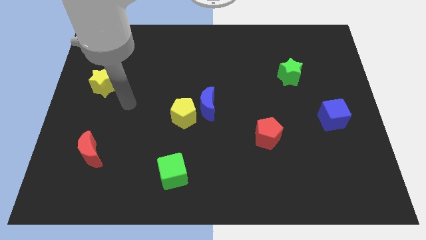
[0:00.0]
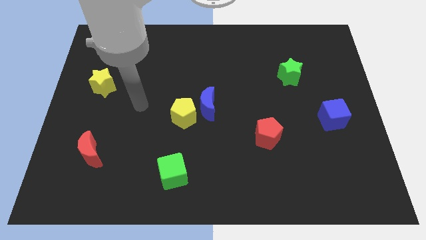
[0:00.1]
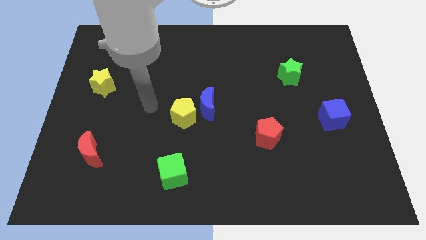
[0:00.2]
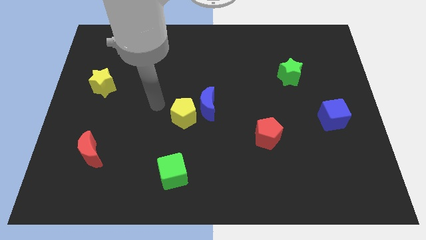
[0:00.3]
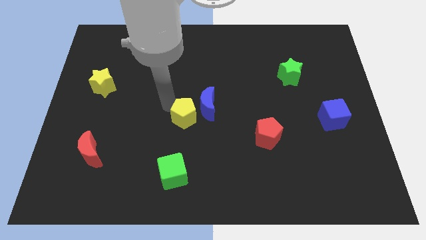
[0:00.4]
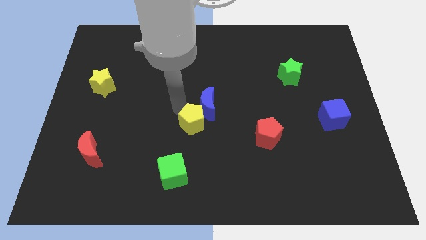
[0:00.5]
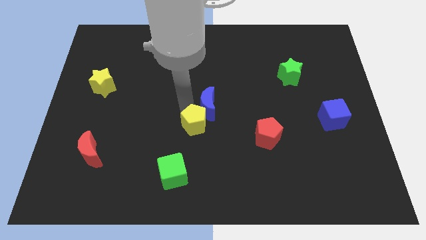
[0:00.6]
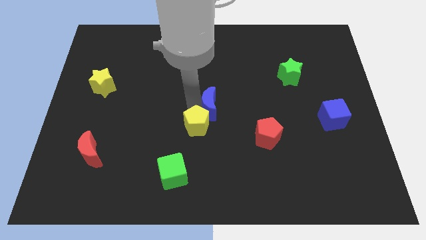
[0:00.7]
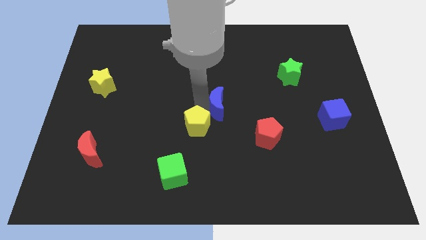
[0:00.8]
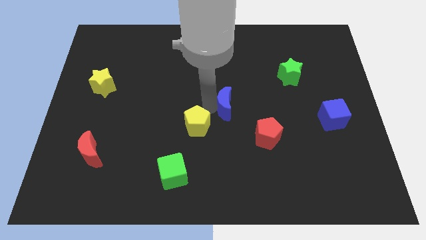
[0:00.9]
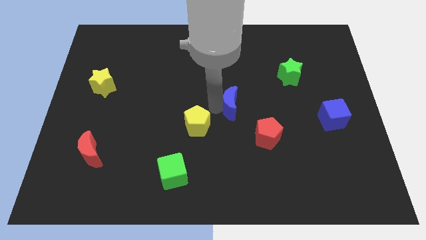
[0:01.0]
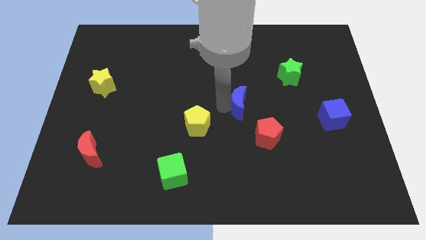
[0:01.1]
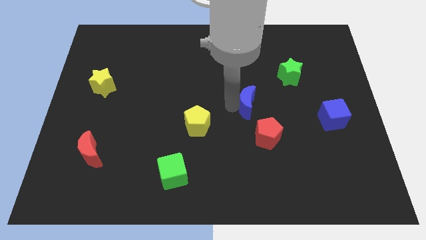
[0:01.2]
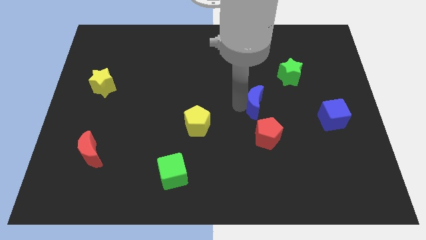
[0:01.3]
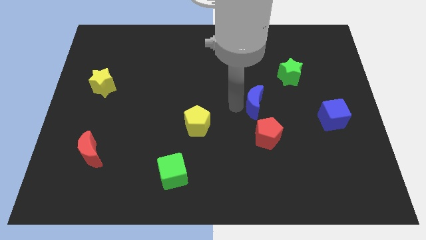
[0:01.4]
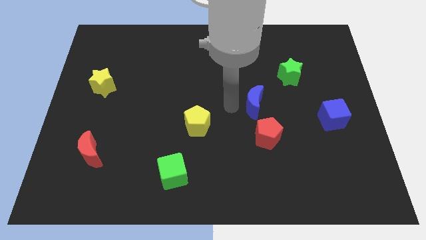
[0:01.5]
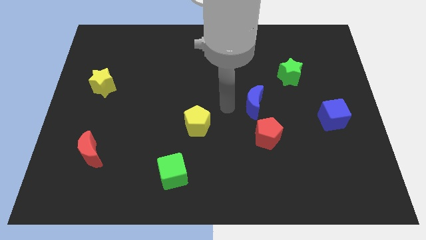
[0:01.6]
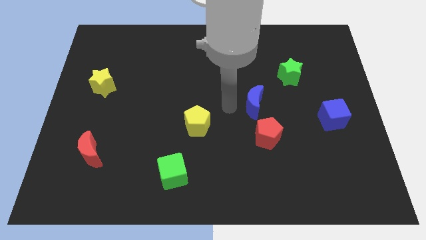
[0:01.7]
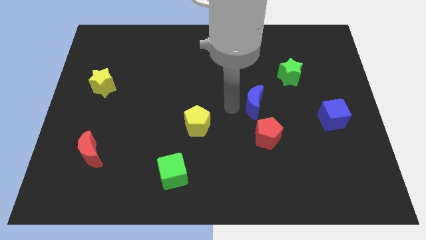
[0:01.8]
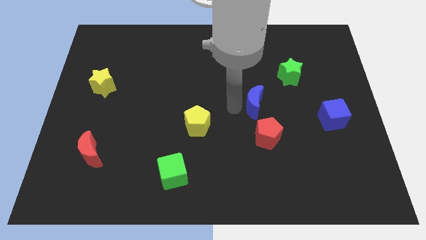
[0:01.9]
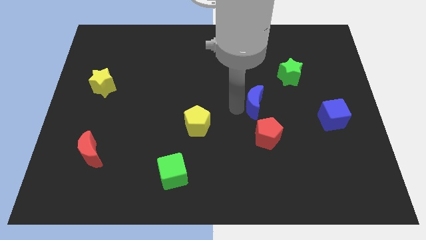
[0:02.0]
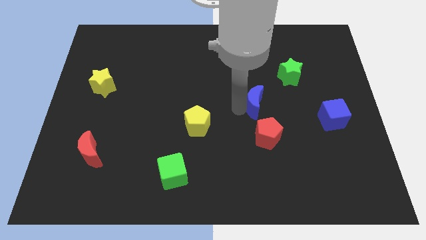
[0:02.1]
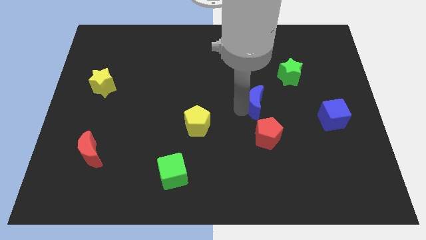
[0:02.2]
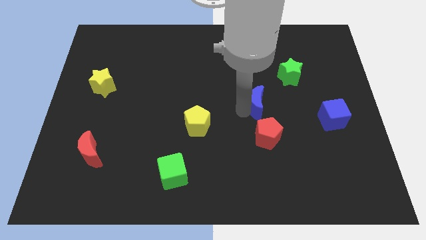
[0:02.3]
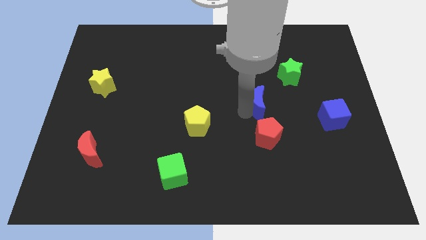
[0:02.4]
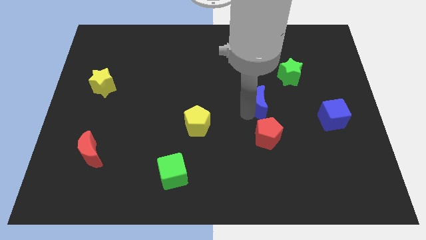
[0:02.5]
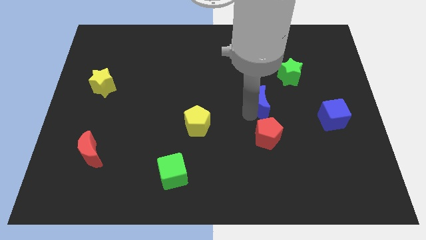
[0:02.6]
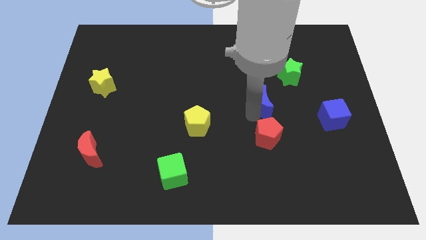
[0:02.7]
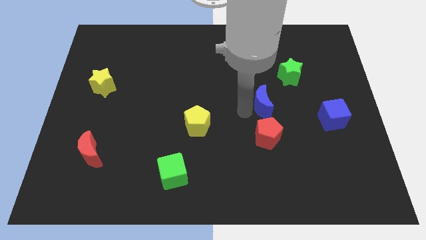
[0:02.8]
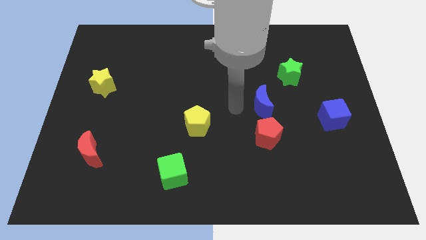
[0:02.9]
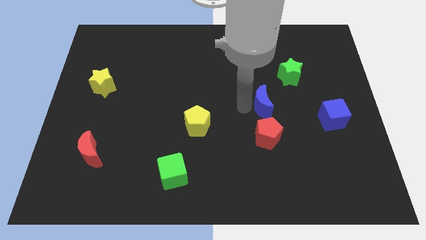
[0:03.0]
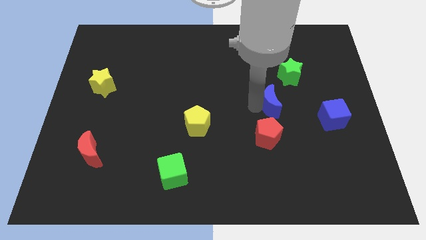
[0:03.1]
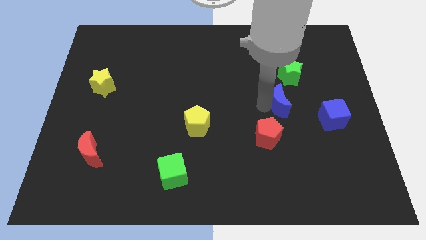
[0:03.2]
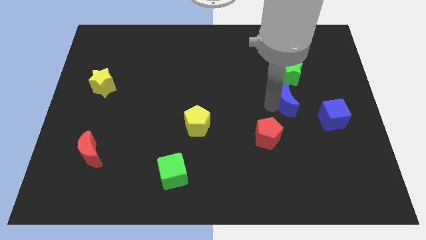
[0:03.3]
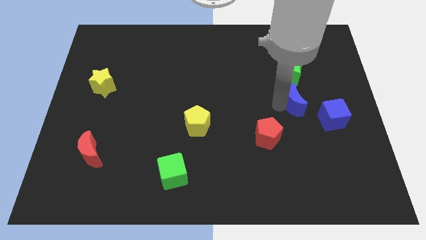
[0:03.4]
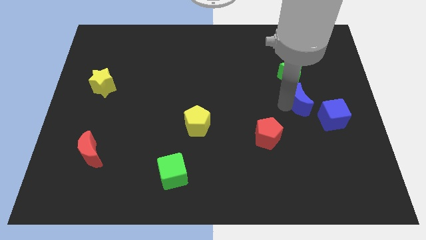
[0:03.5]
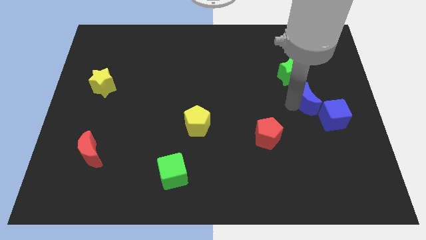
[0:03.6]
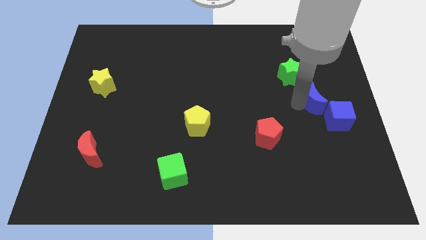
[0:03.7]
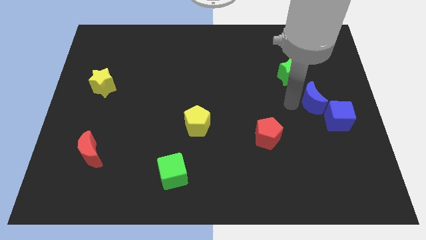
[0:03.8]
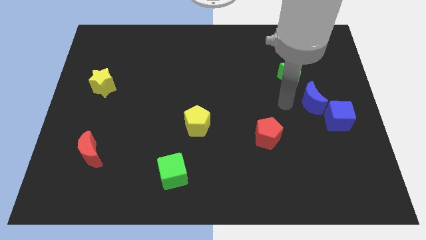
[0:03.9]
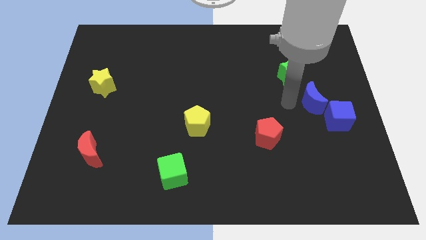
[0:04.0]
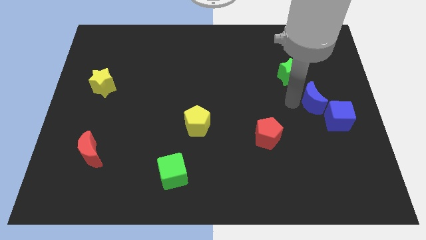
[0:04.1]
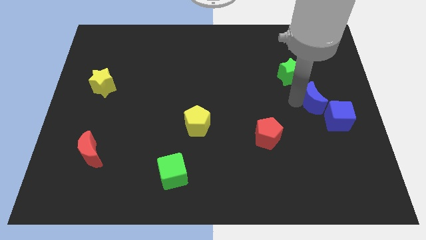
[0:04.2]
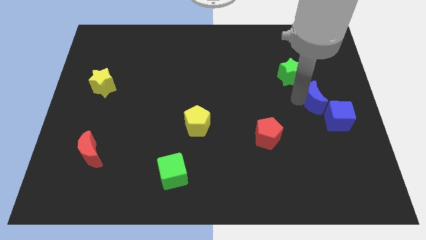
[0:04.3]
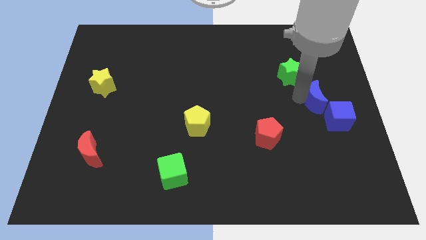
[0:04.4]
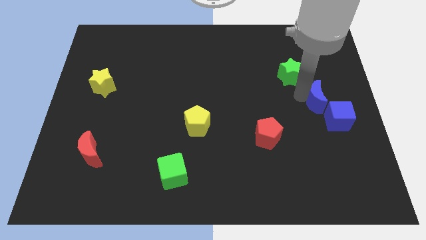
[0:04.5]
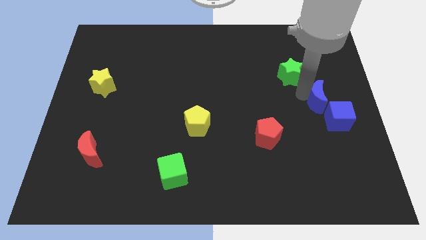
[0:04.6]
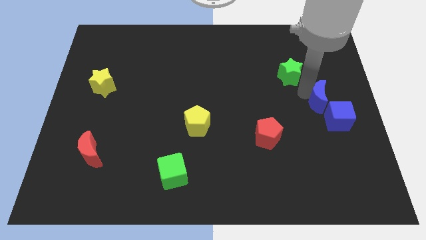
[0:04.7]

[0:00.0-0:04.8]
push the blue moon to the center right

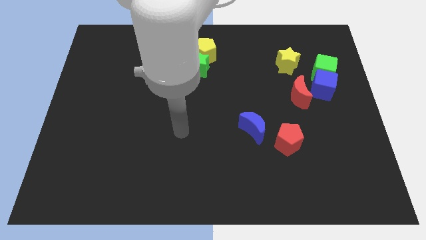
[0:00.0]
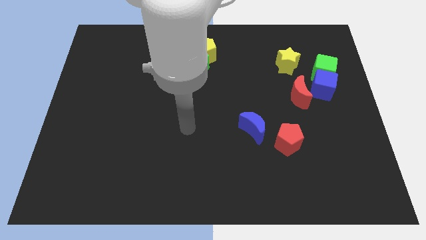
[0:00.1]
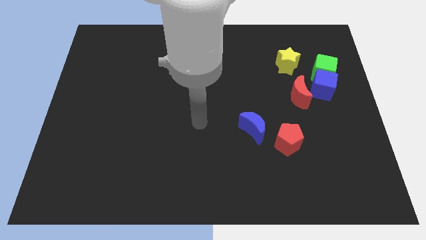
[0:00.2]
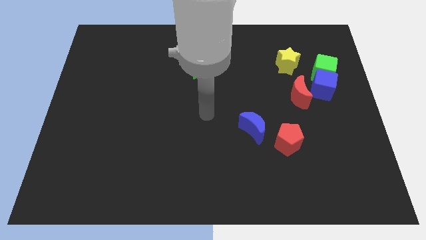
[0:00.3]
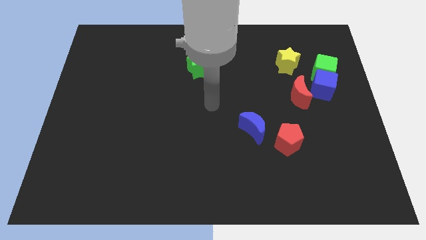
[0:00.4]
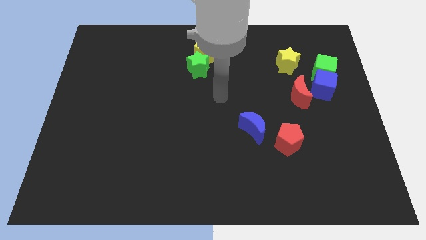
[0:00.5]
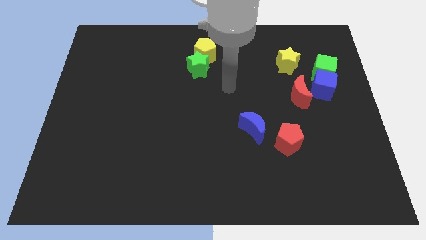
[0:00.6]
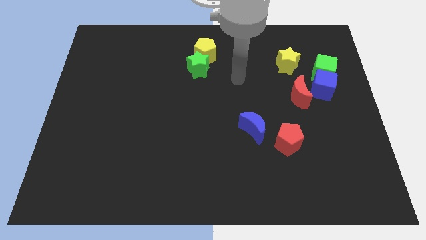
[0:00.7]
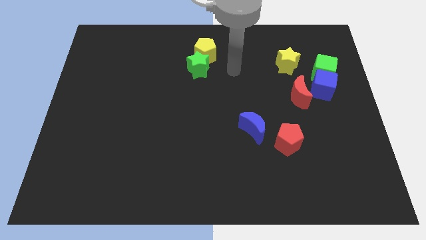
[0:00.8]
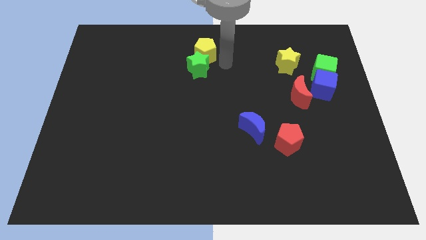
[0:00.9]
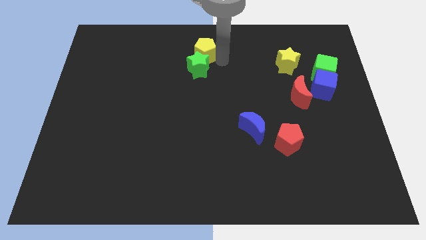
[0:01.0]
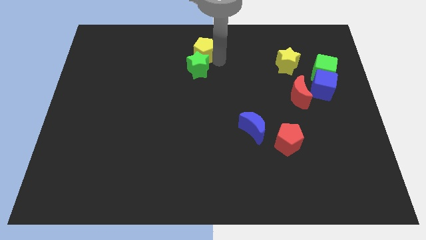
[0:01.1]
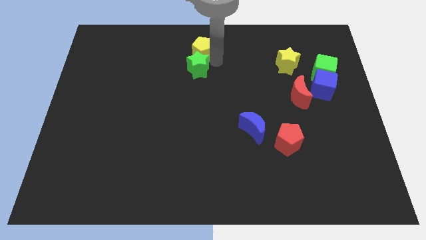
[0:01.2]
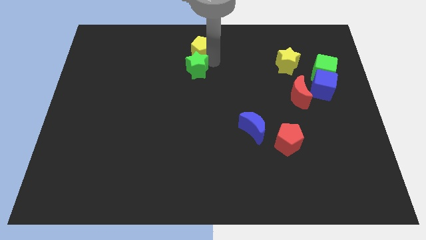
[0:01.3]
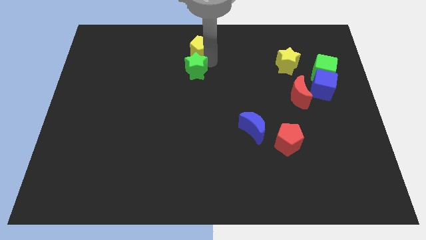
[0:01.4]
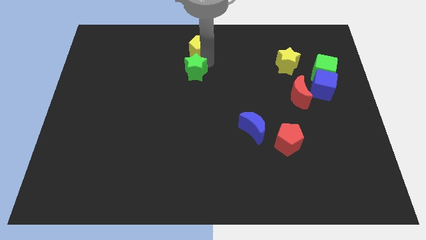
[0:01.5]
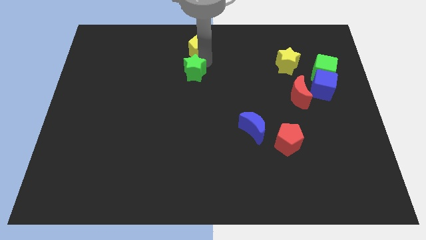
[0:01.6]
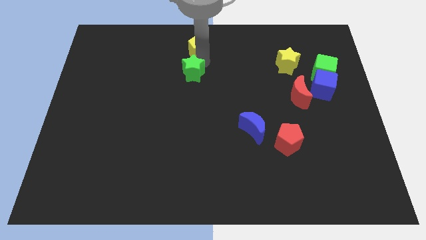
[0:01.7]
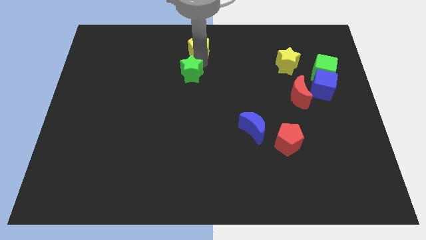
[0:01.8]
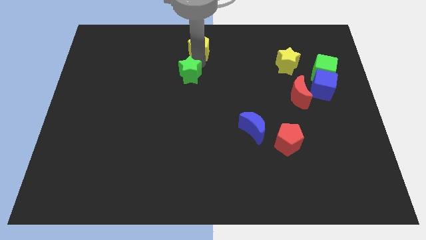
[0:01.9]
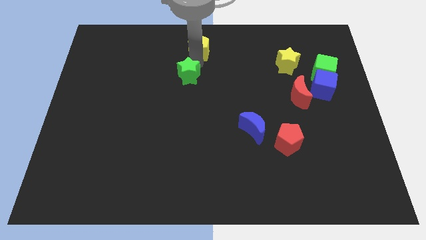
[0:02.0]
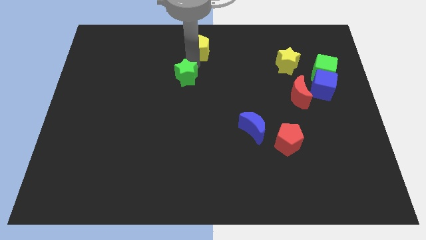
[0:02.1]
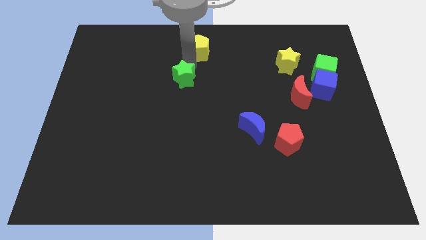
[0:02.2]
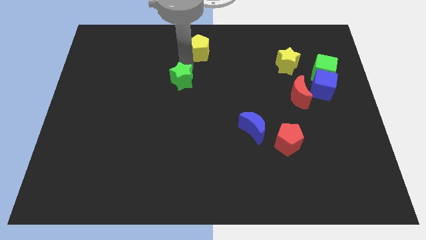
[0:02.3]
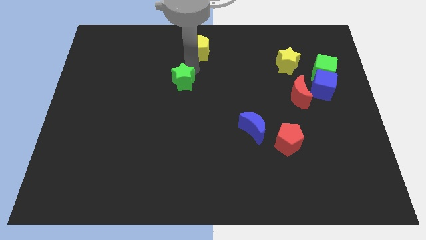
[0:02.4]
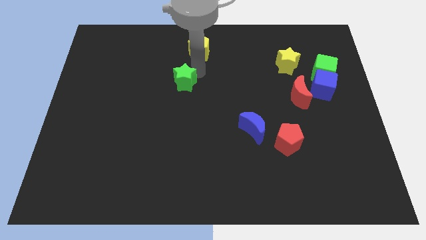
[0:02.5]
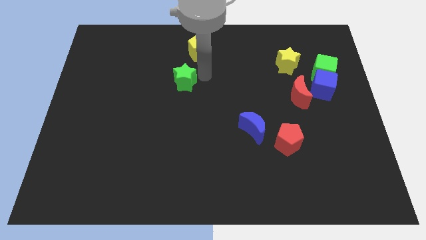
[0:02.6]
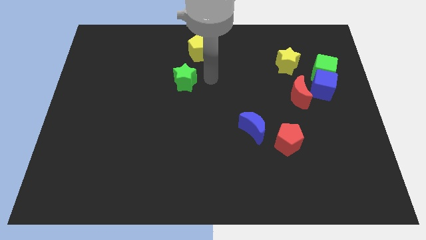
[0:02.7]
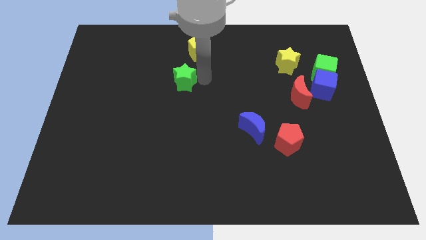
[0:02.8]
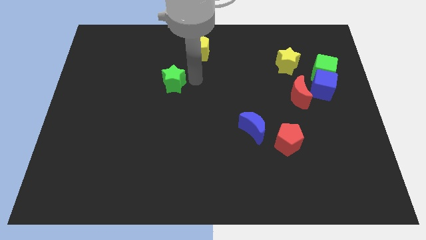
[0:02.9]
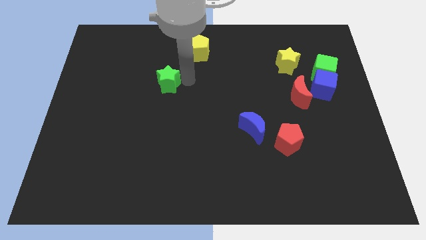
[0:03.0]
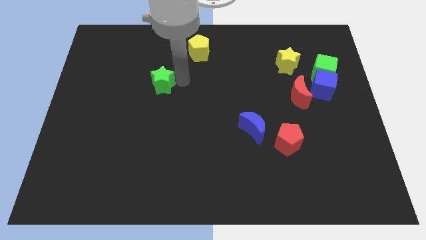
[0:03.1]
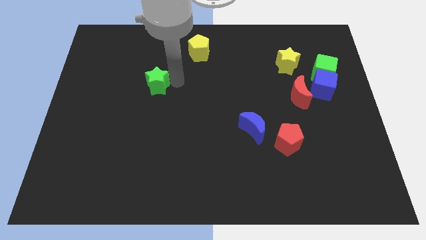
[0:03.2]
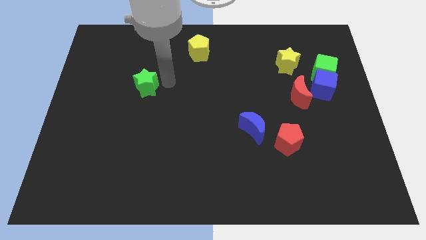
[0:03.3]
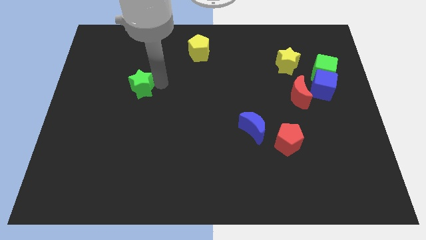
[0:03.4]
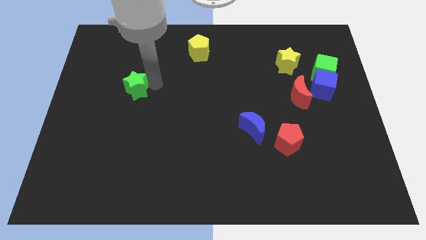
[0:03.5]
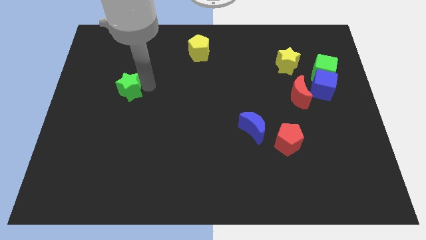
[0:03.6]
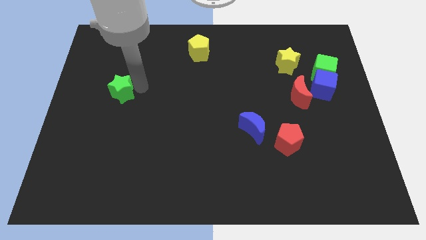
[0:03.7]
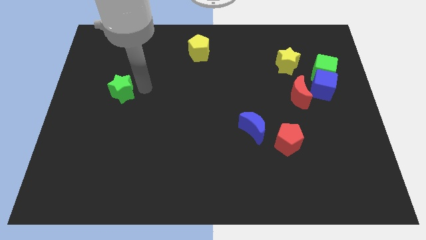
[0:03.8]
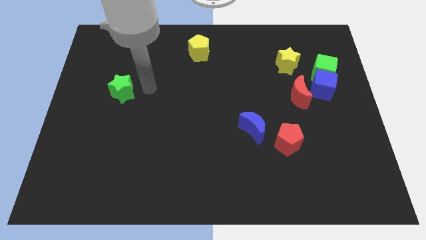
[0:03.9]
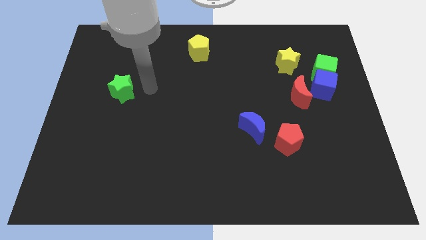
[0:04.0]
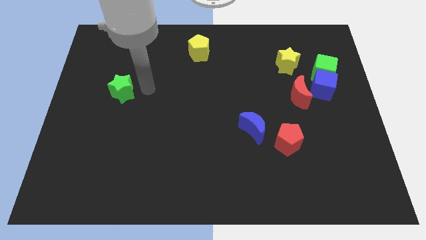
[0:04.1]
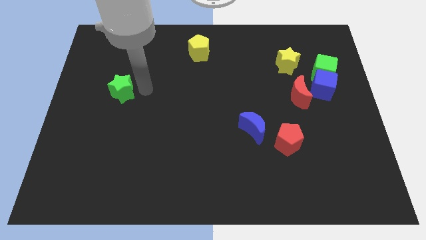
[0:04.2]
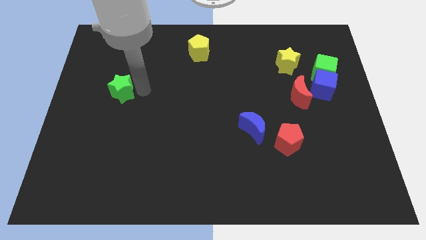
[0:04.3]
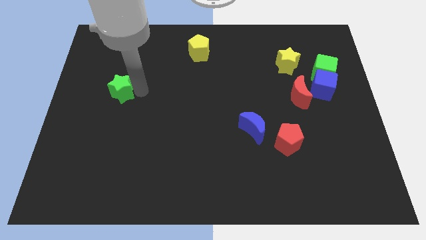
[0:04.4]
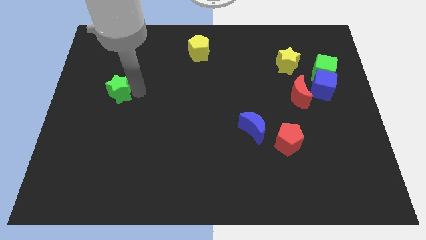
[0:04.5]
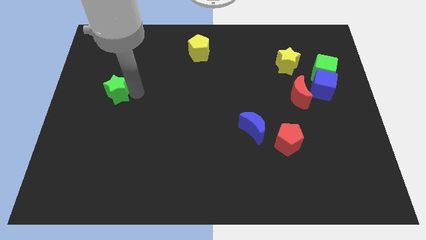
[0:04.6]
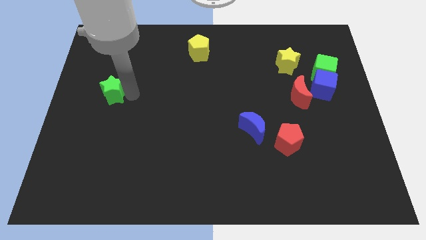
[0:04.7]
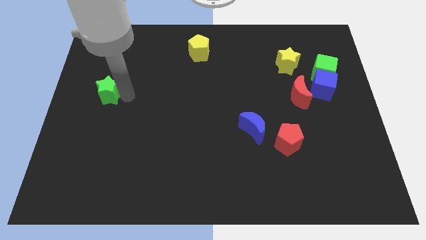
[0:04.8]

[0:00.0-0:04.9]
slide the green star to the left side of the board
